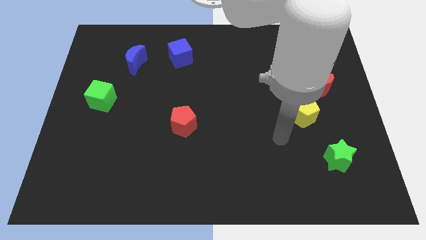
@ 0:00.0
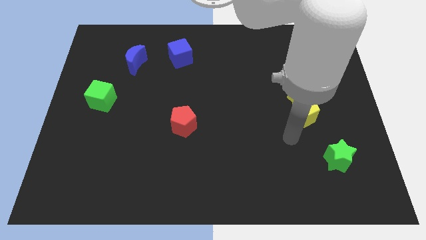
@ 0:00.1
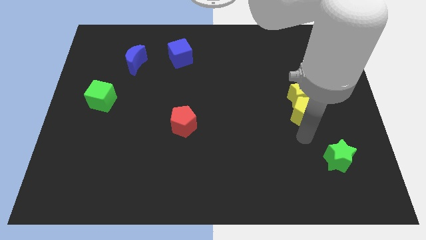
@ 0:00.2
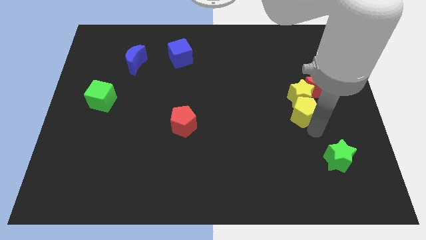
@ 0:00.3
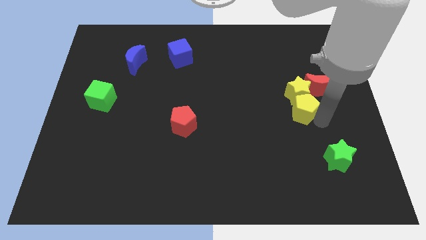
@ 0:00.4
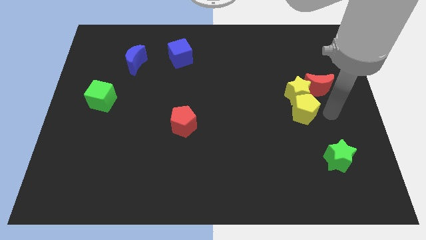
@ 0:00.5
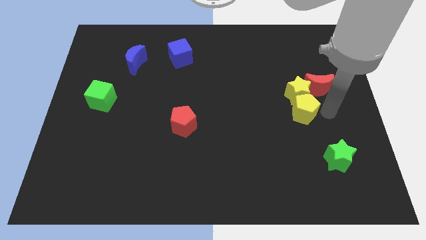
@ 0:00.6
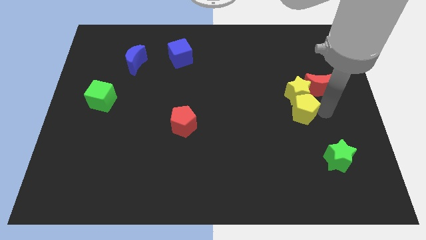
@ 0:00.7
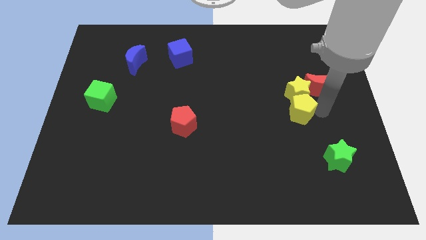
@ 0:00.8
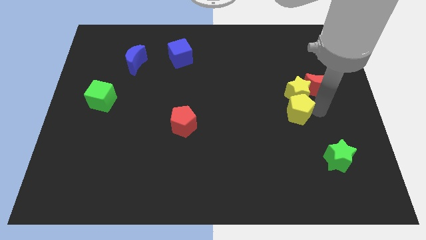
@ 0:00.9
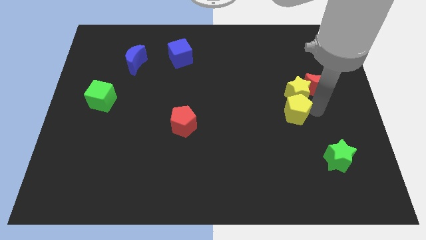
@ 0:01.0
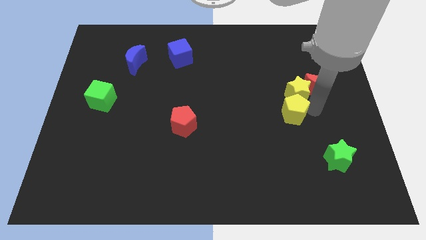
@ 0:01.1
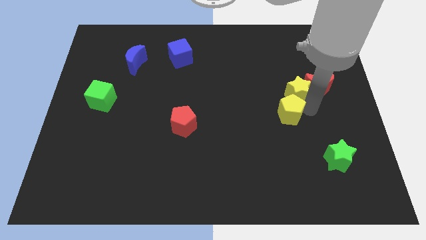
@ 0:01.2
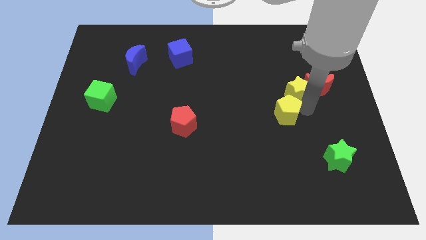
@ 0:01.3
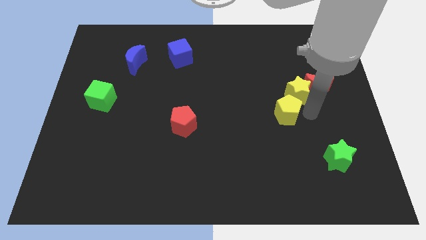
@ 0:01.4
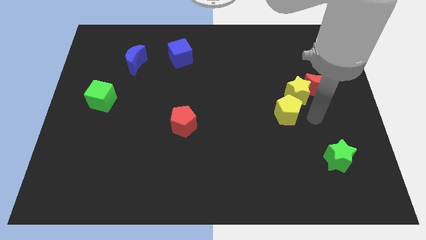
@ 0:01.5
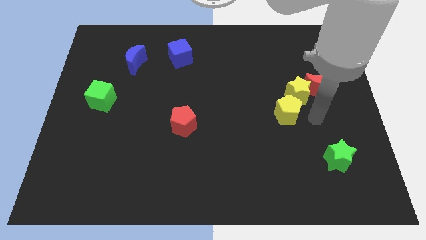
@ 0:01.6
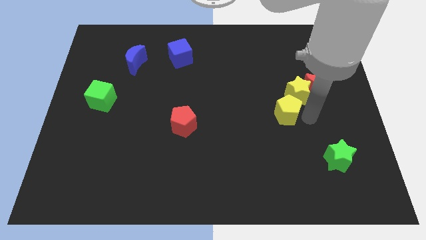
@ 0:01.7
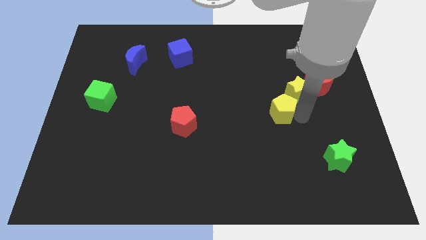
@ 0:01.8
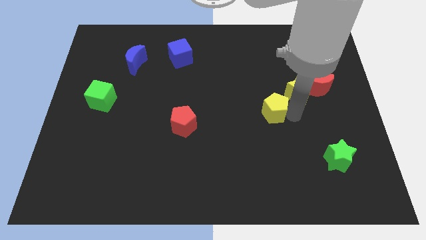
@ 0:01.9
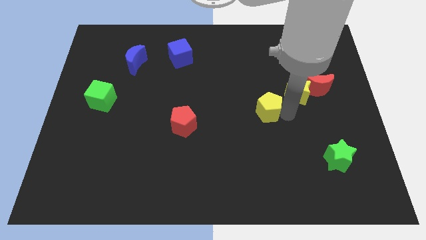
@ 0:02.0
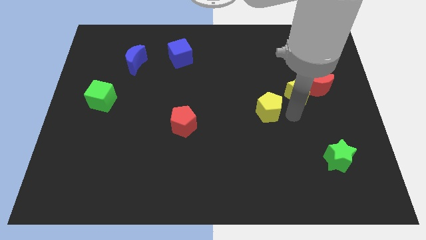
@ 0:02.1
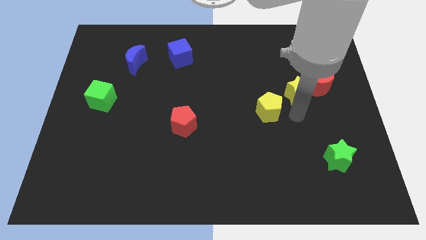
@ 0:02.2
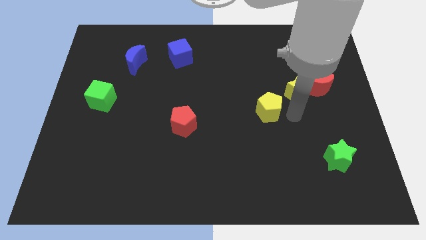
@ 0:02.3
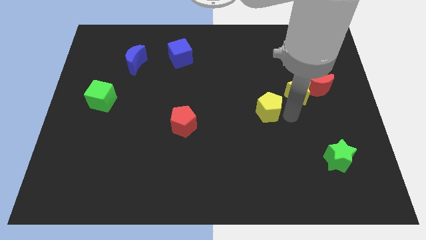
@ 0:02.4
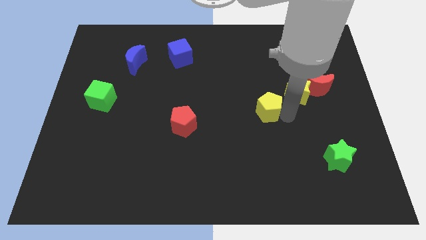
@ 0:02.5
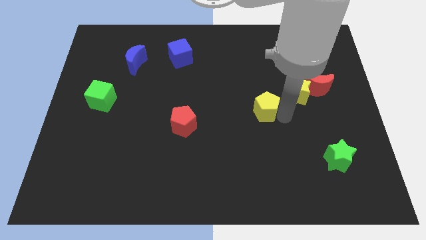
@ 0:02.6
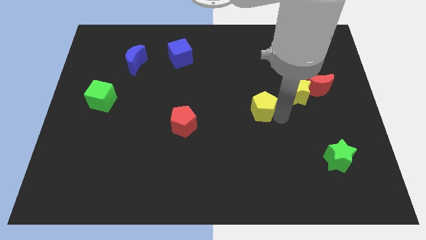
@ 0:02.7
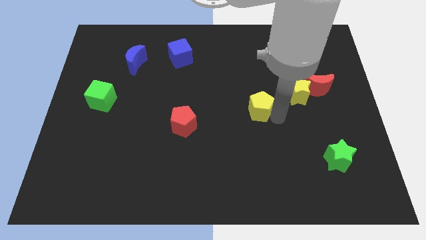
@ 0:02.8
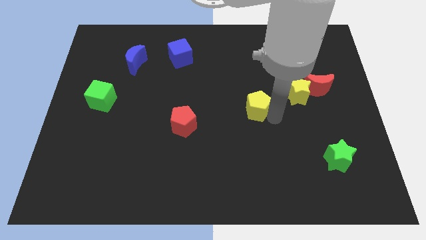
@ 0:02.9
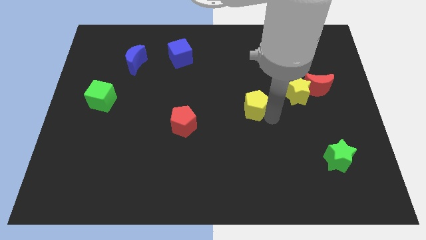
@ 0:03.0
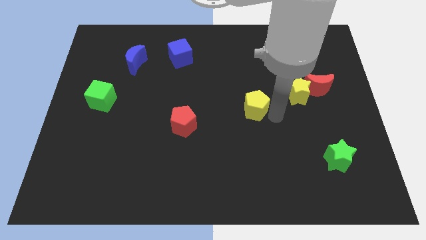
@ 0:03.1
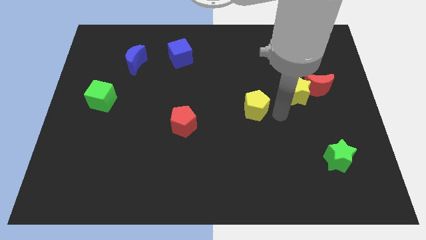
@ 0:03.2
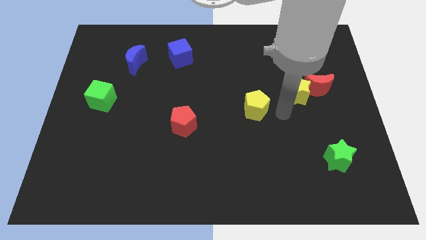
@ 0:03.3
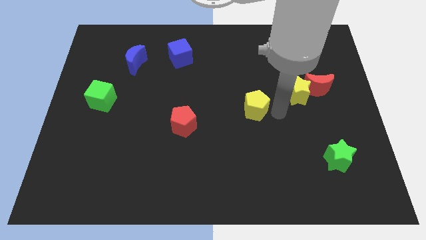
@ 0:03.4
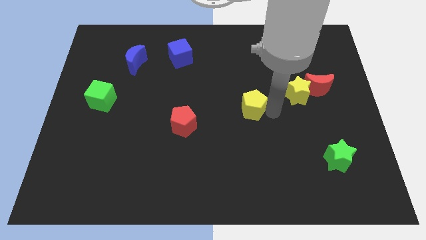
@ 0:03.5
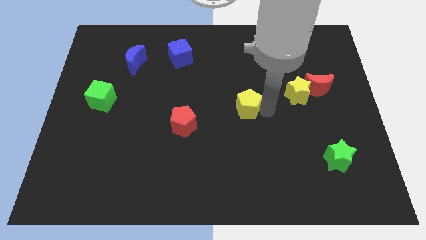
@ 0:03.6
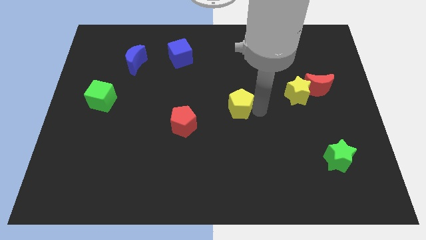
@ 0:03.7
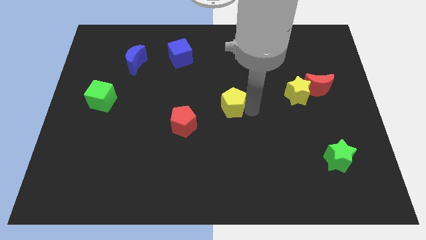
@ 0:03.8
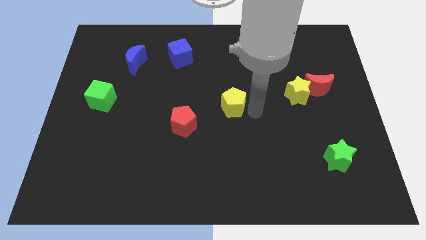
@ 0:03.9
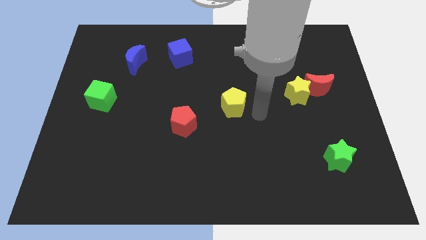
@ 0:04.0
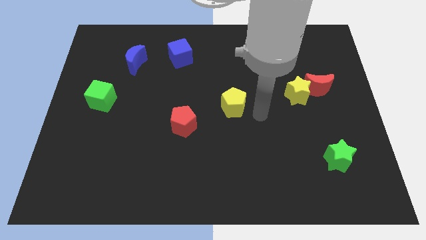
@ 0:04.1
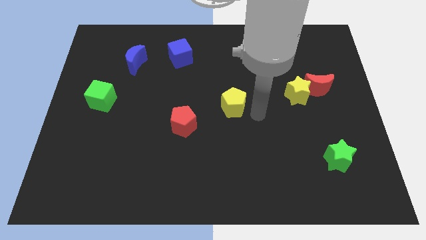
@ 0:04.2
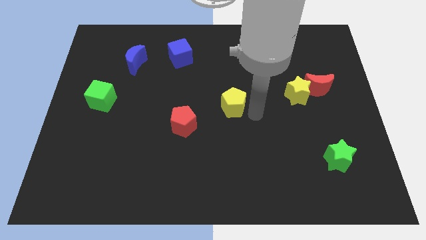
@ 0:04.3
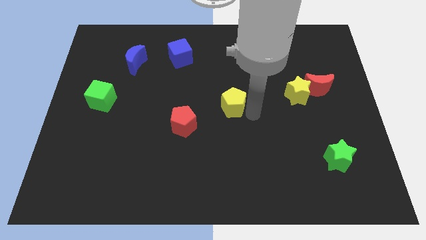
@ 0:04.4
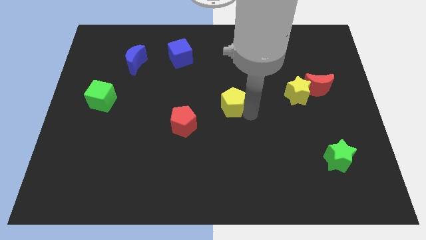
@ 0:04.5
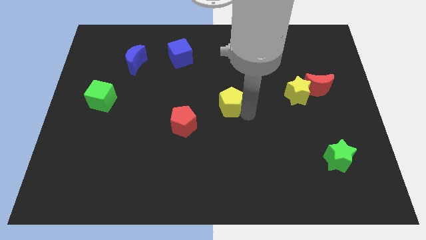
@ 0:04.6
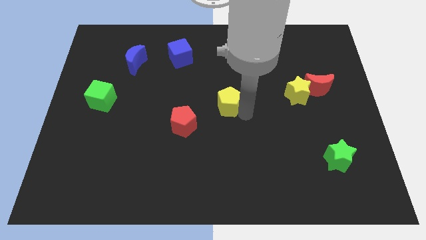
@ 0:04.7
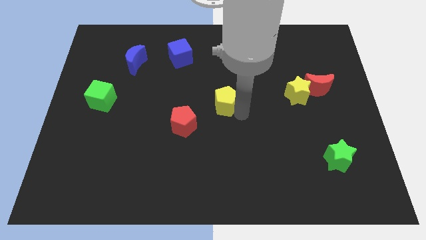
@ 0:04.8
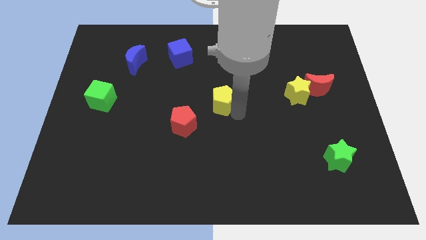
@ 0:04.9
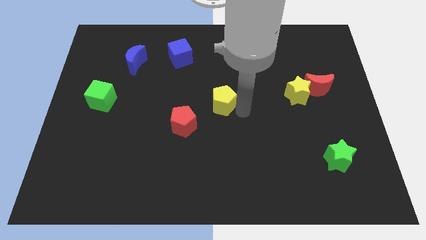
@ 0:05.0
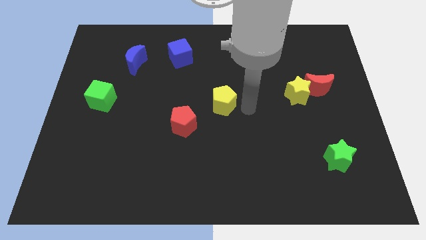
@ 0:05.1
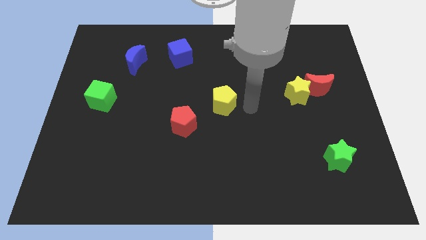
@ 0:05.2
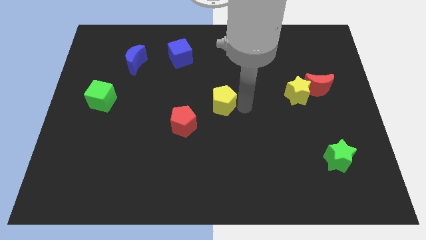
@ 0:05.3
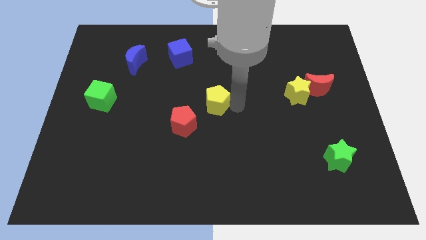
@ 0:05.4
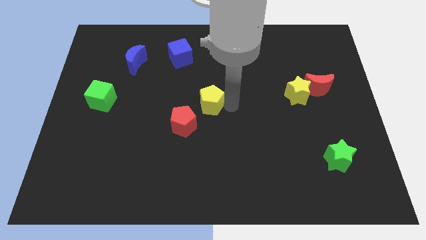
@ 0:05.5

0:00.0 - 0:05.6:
push the yellow pentagon to the left

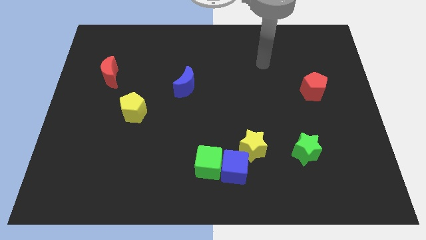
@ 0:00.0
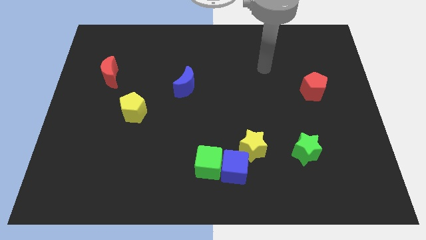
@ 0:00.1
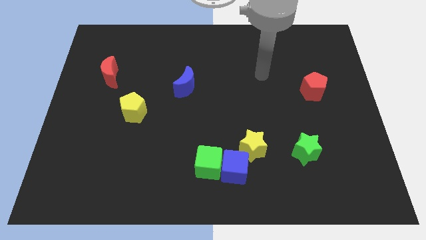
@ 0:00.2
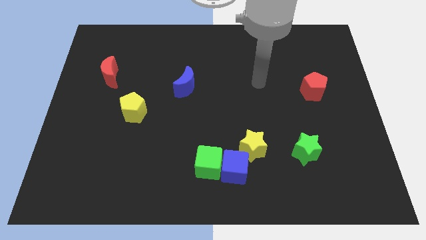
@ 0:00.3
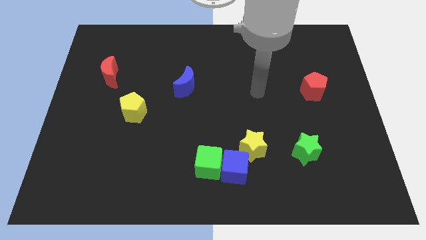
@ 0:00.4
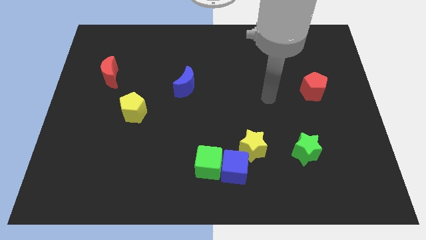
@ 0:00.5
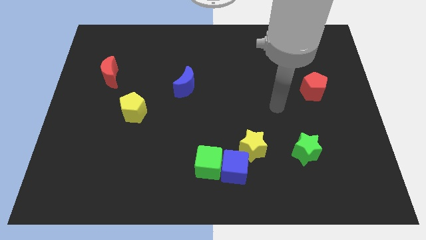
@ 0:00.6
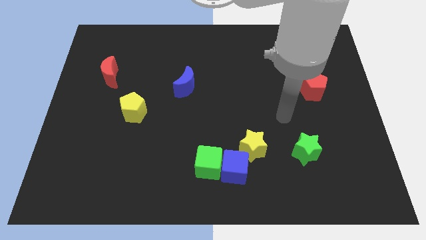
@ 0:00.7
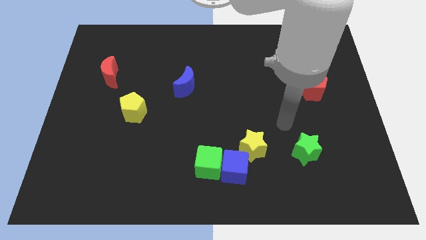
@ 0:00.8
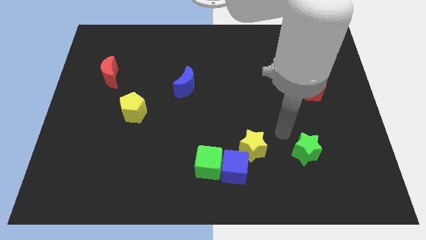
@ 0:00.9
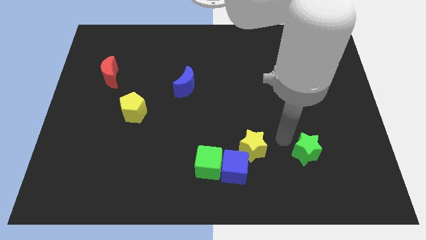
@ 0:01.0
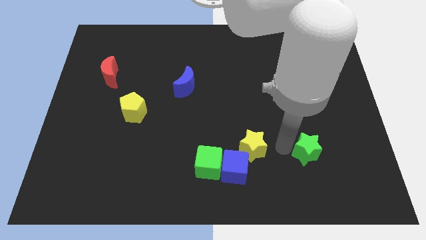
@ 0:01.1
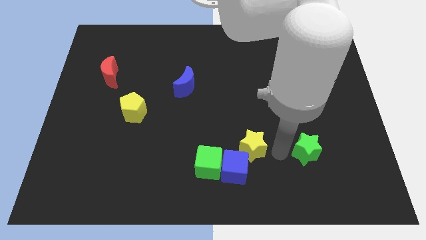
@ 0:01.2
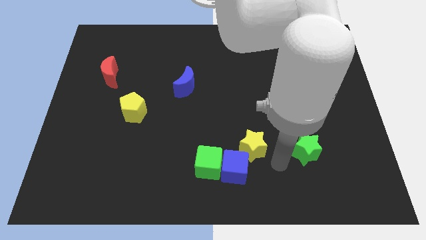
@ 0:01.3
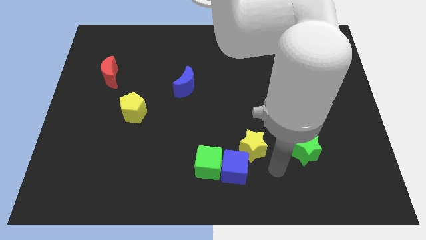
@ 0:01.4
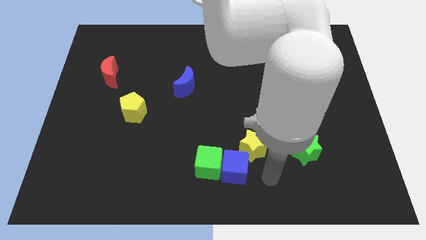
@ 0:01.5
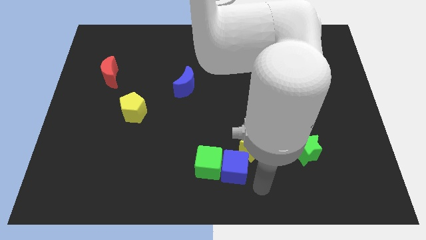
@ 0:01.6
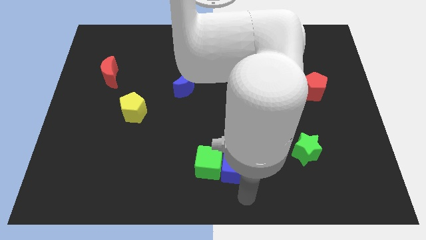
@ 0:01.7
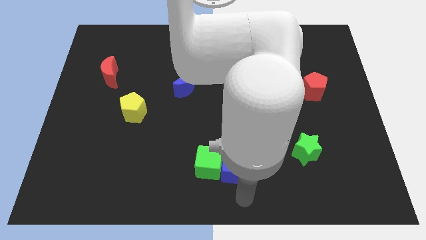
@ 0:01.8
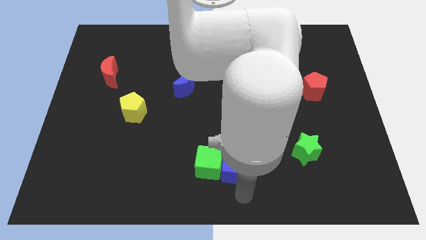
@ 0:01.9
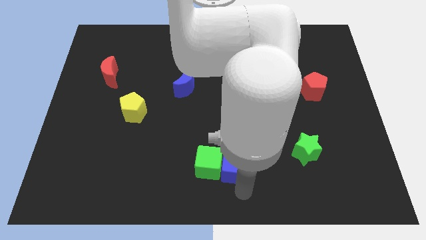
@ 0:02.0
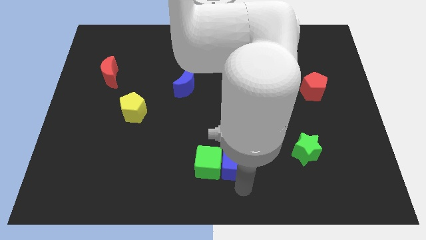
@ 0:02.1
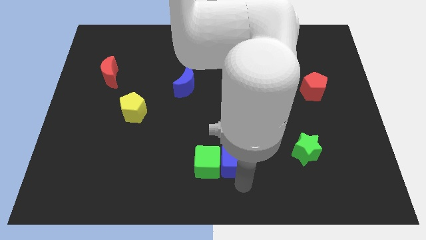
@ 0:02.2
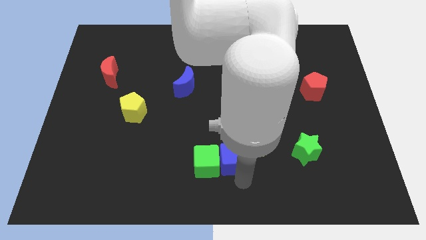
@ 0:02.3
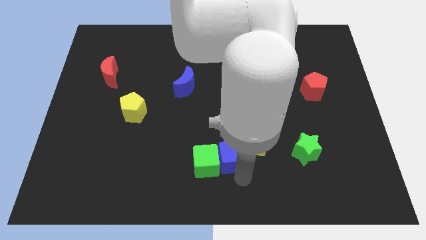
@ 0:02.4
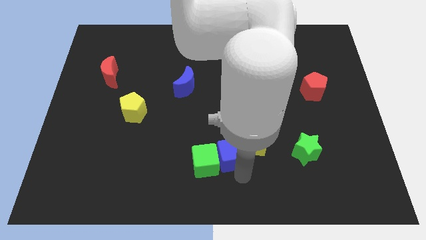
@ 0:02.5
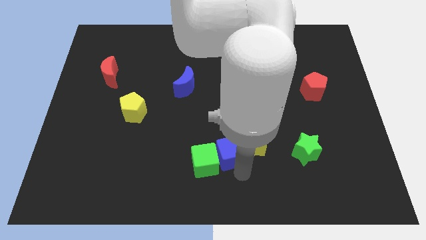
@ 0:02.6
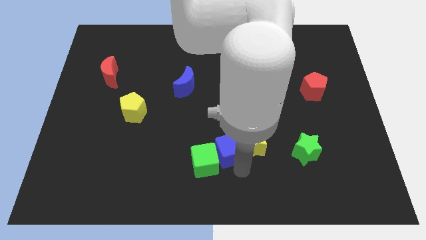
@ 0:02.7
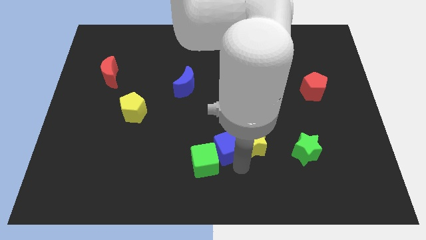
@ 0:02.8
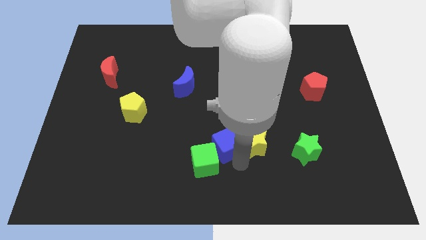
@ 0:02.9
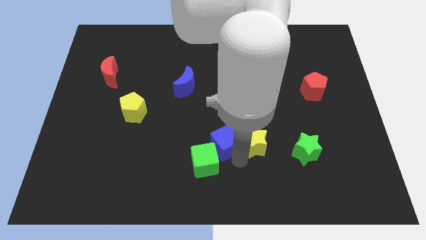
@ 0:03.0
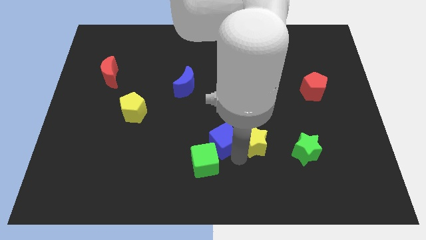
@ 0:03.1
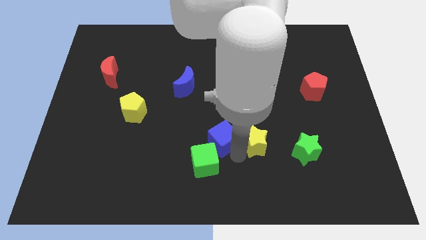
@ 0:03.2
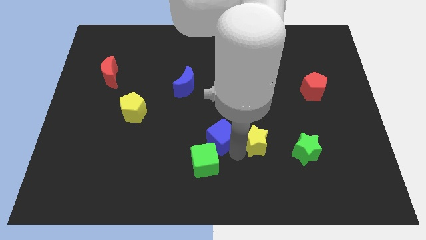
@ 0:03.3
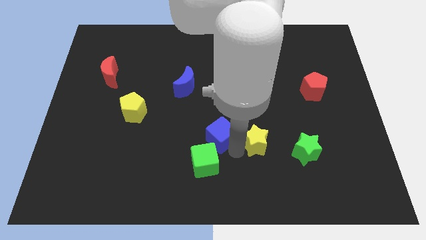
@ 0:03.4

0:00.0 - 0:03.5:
slightly move the blue cube up and to the left diagonally
